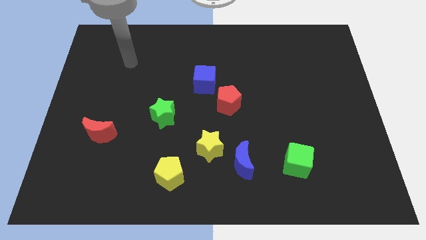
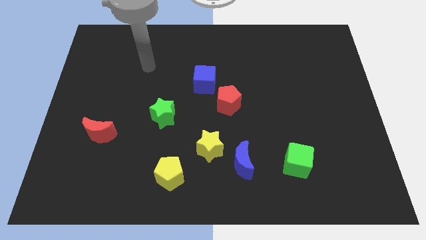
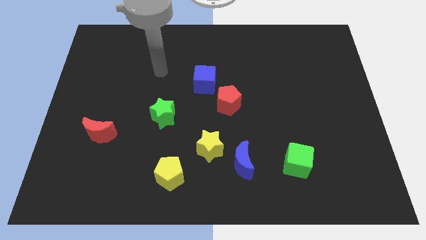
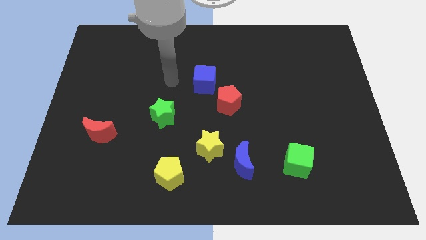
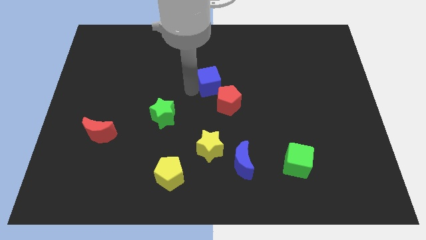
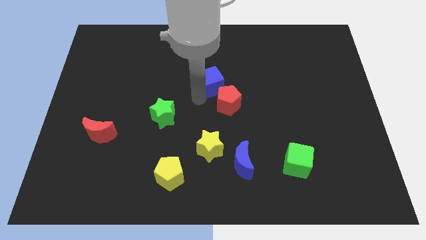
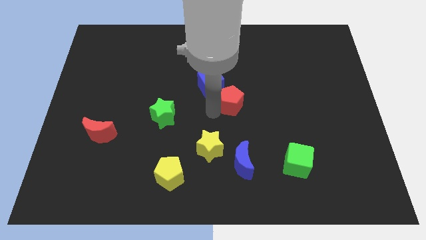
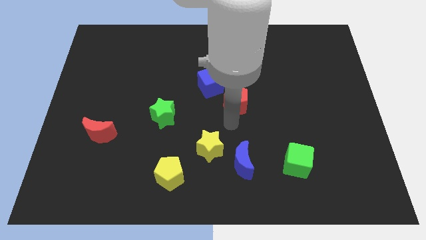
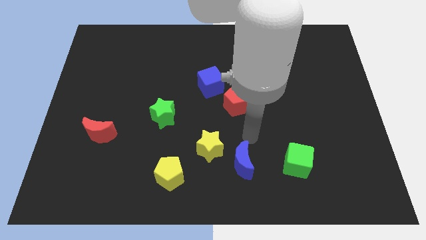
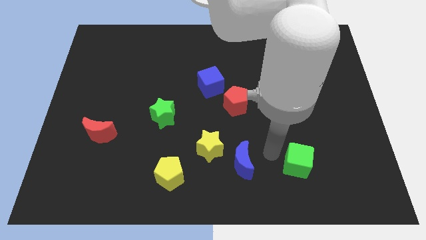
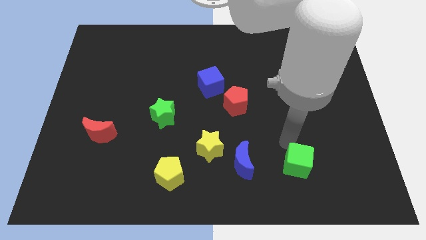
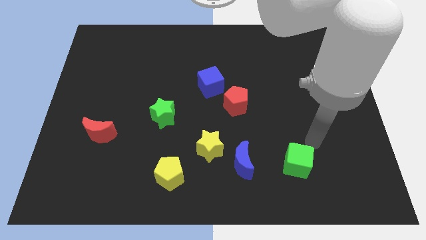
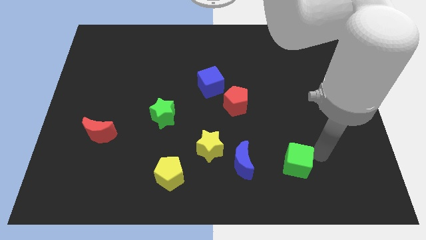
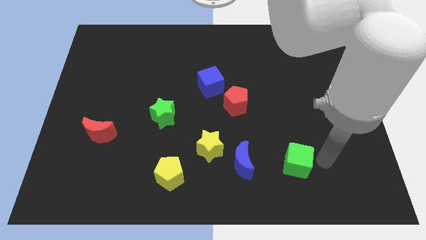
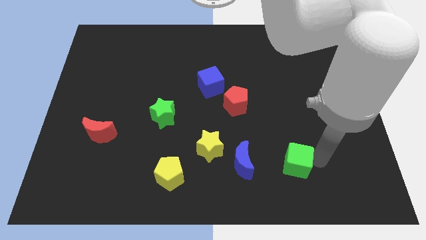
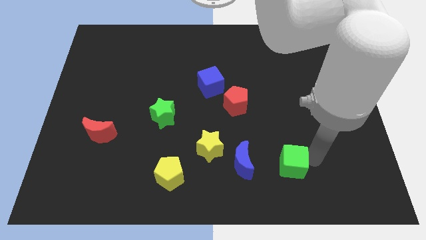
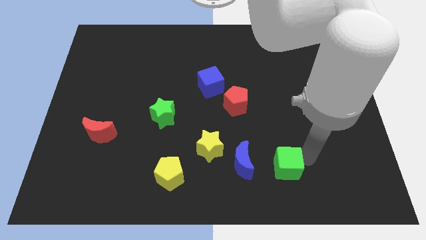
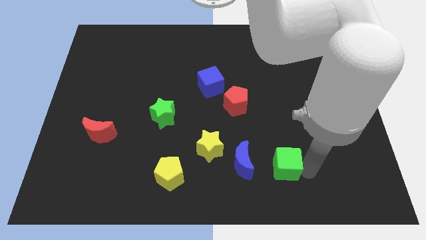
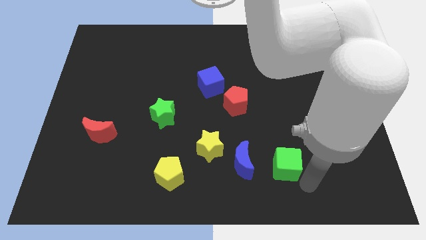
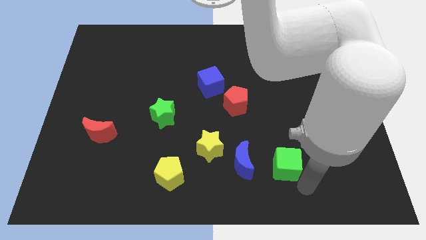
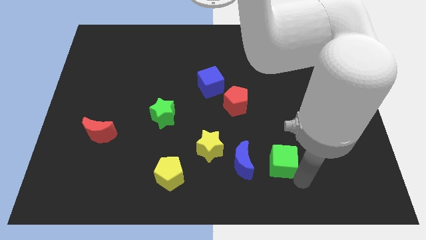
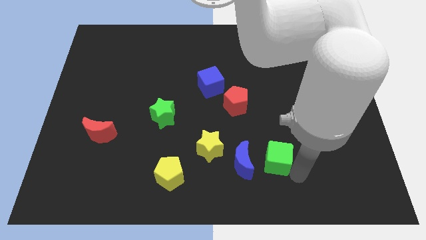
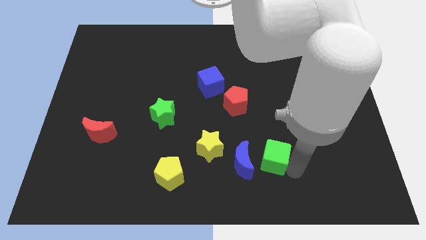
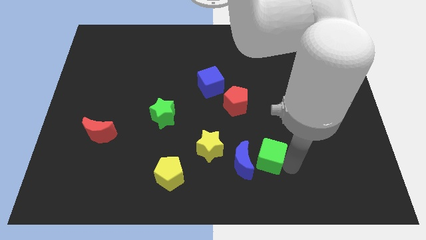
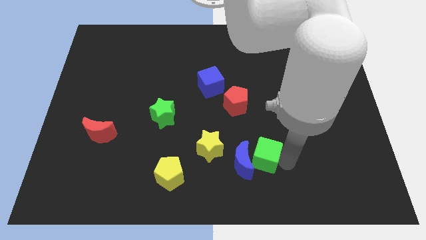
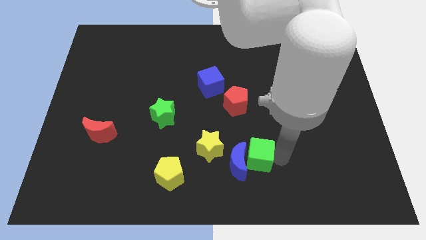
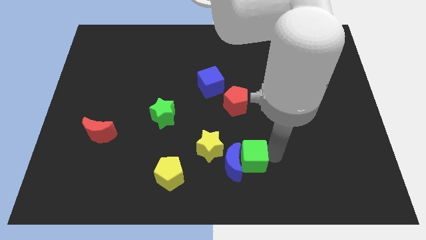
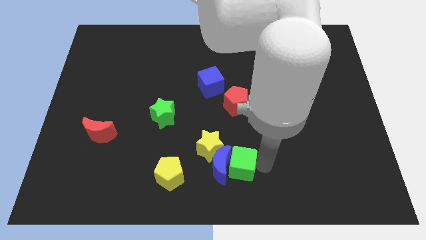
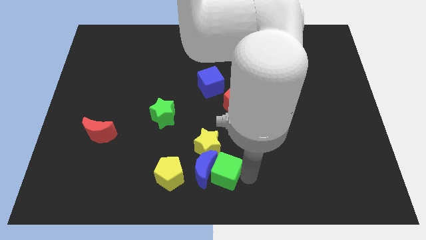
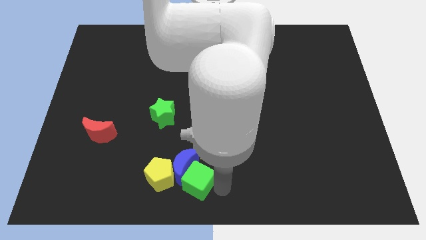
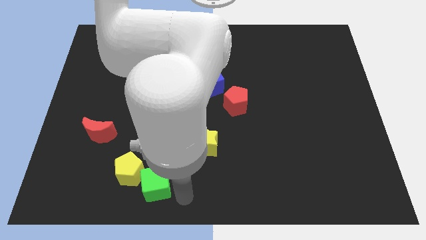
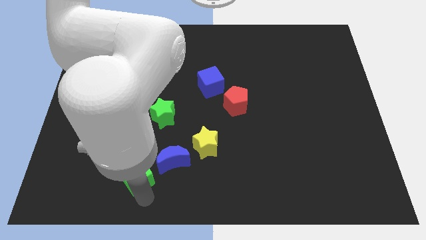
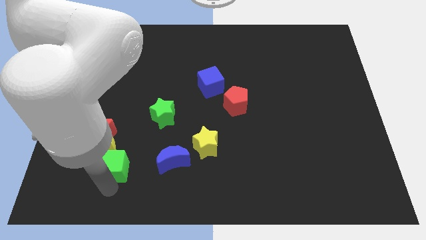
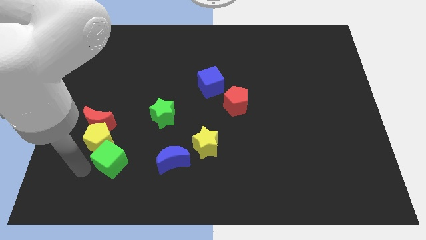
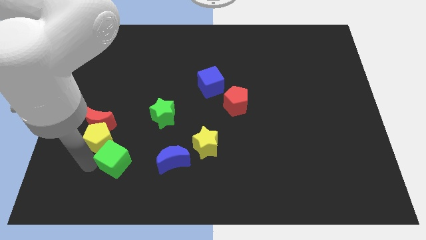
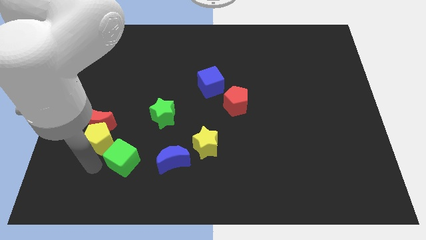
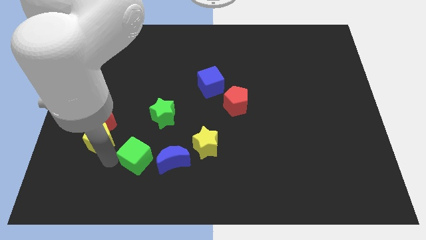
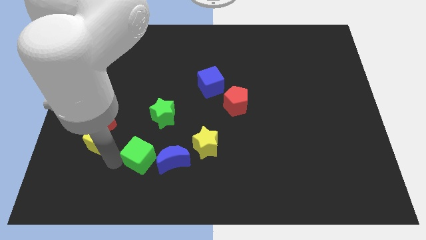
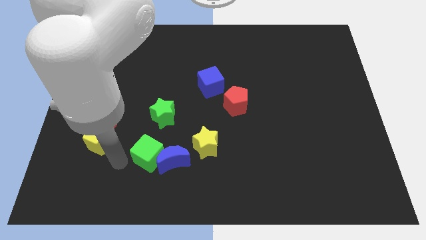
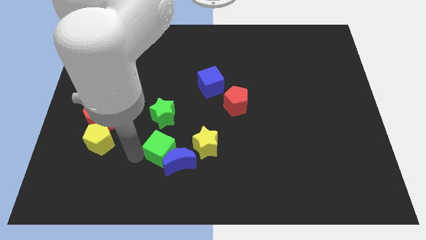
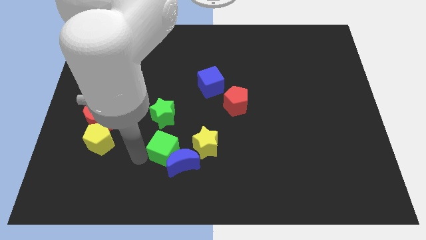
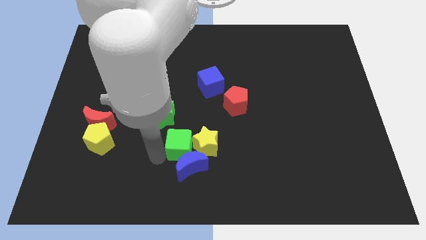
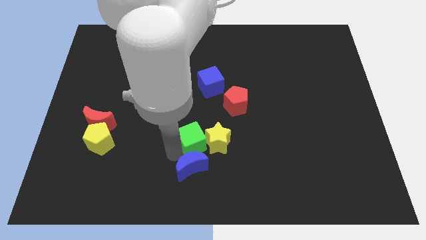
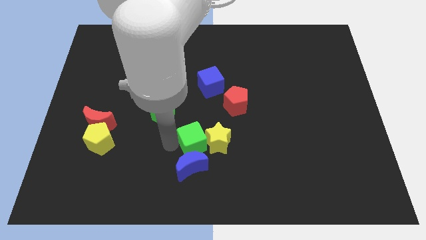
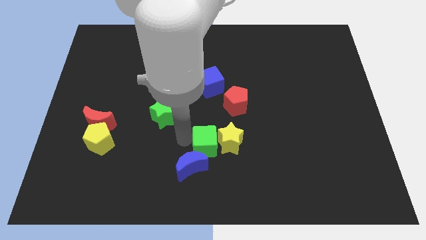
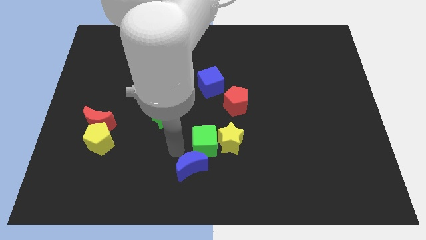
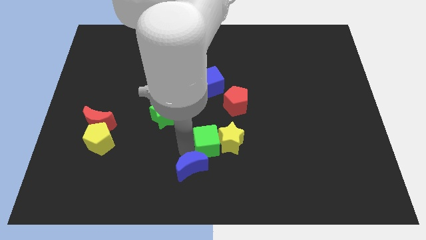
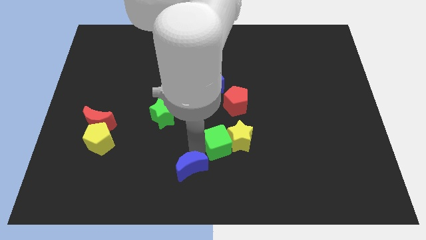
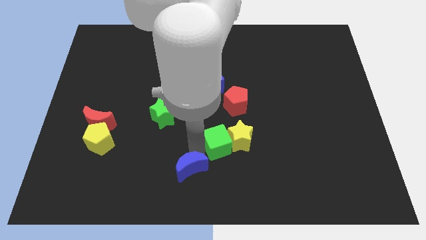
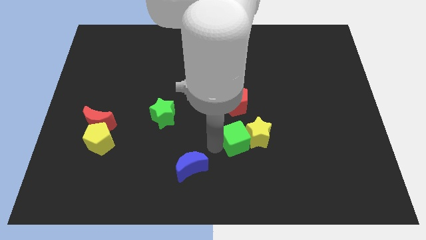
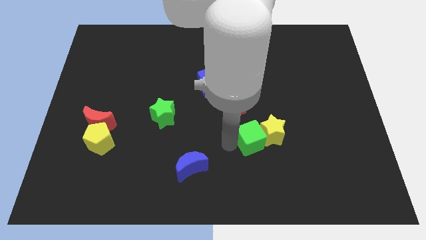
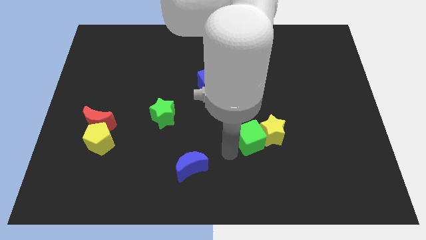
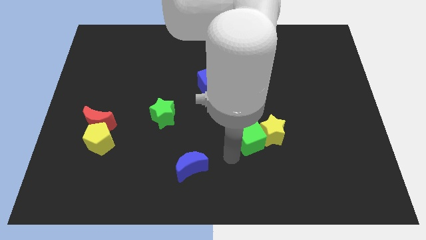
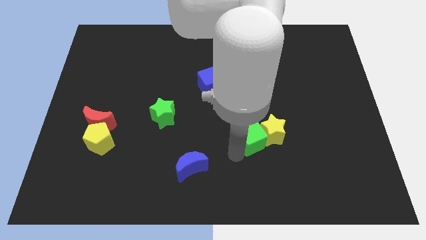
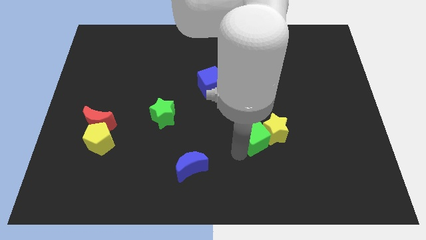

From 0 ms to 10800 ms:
move the green cube to the bottom right of the red pentagon

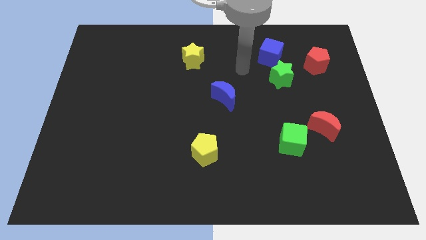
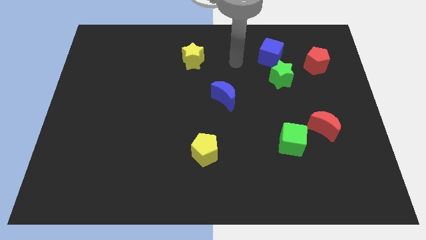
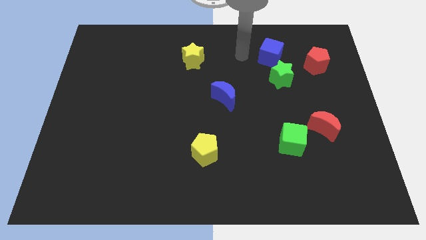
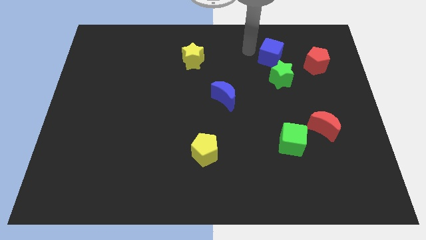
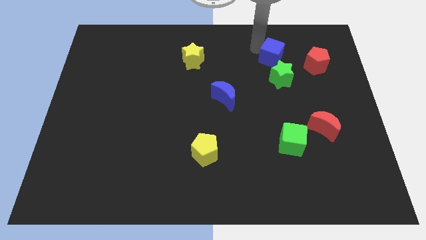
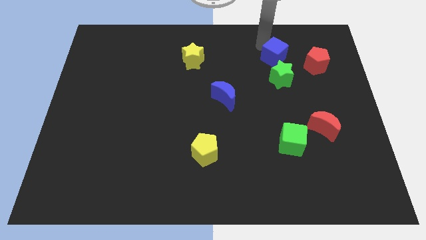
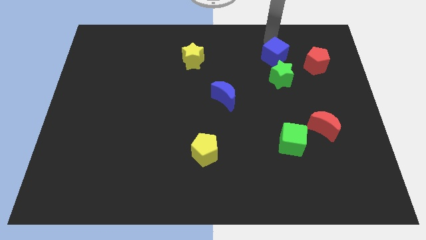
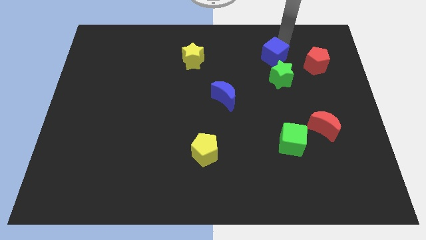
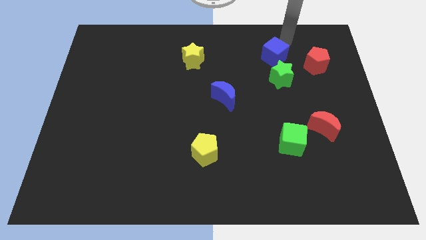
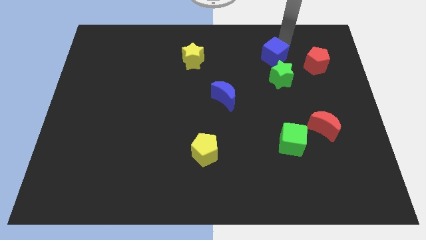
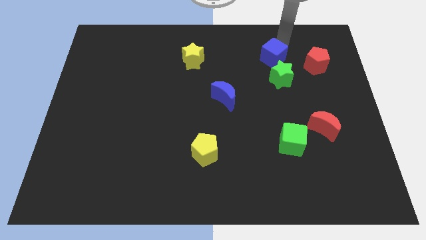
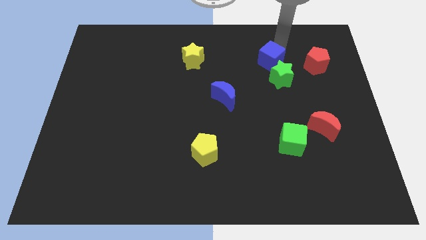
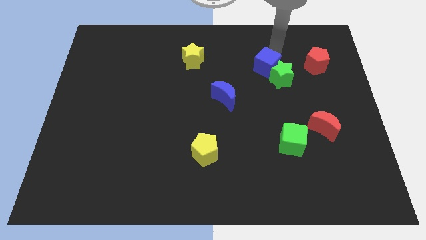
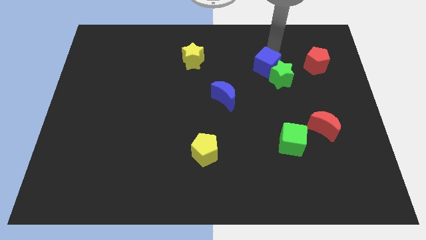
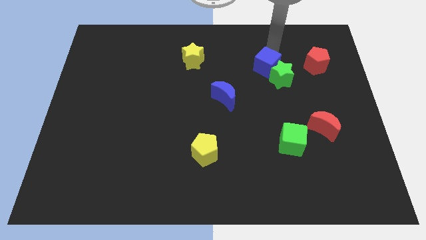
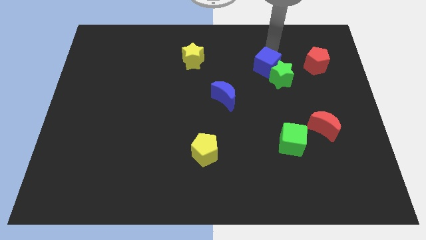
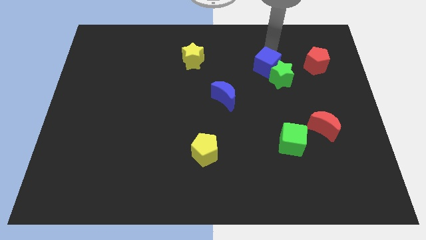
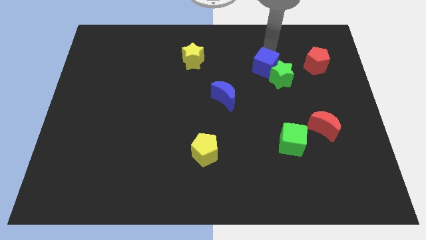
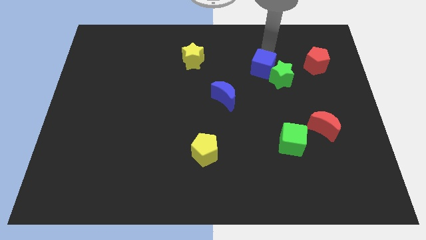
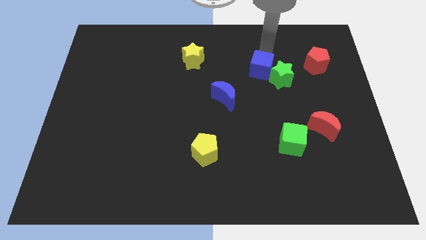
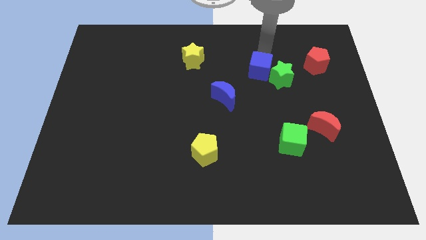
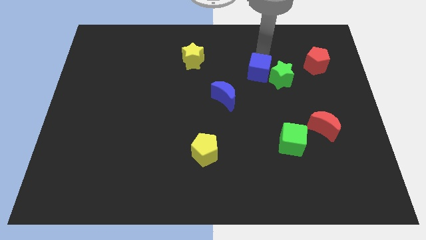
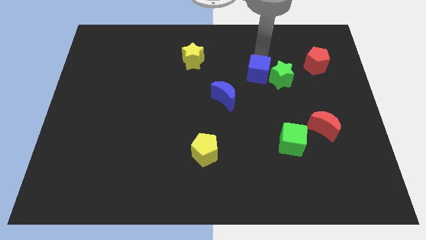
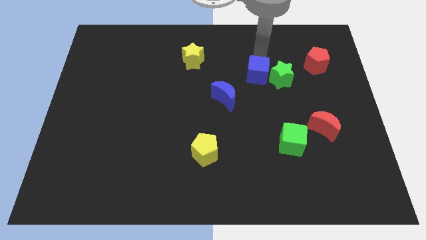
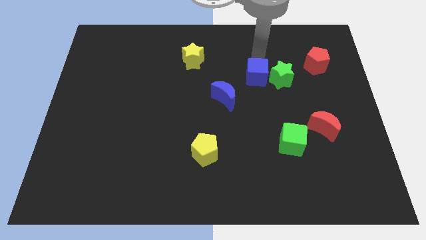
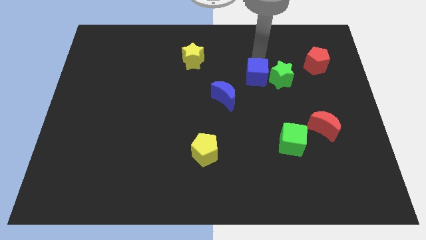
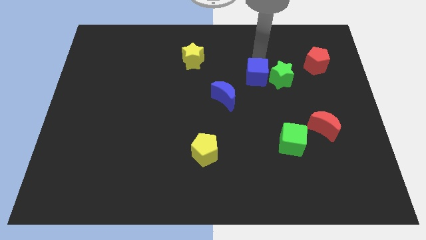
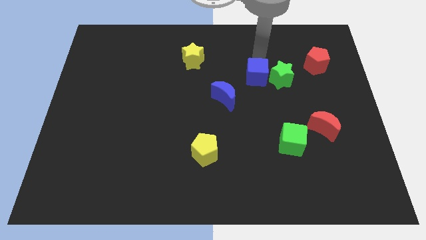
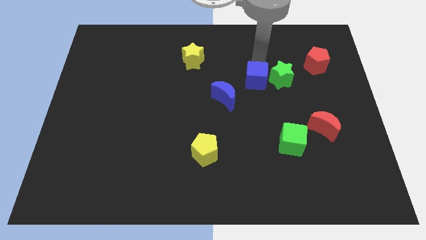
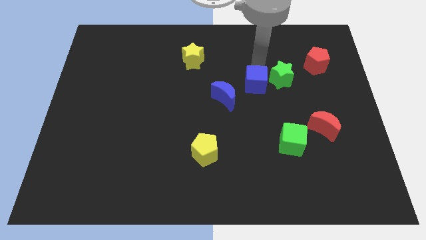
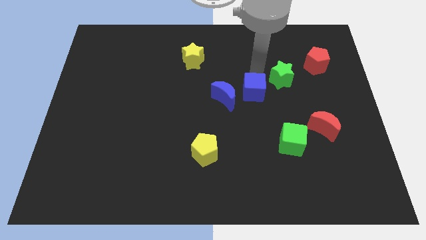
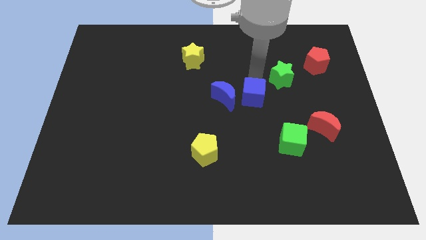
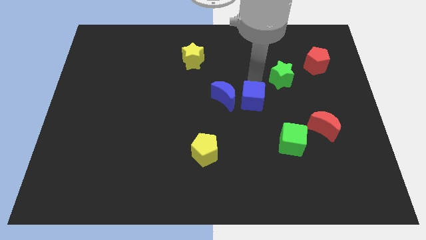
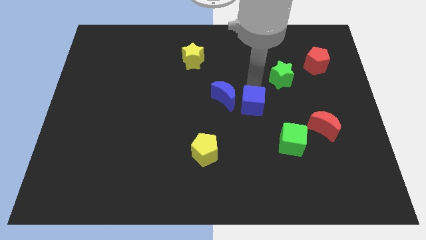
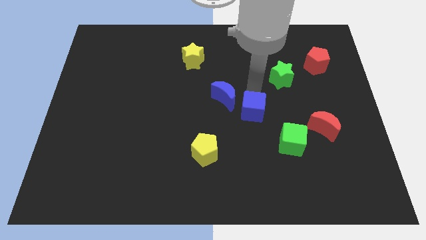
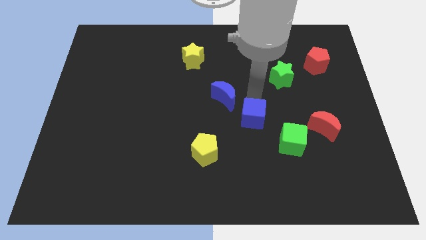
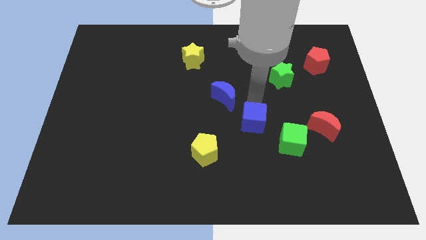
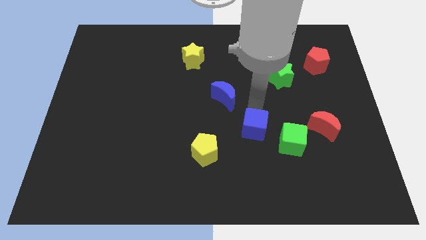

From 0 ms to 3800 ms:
move the blue cube to the left of the green cube
